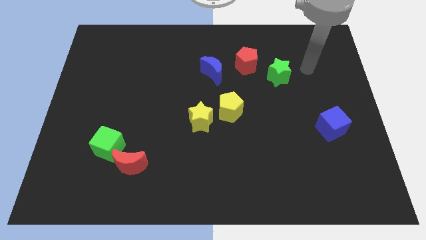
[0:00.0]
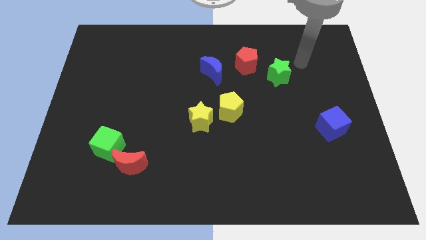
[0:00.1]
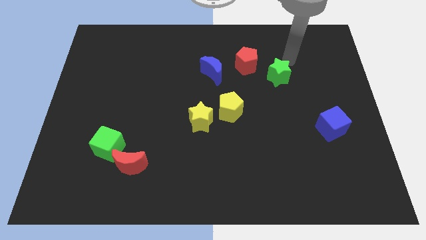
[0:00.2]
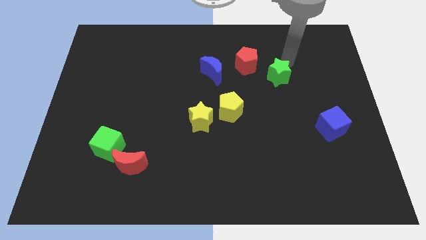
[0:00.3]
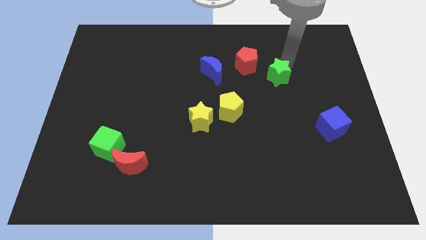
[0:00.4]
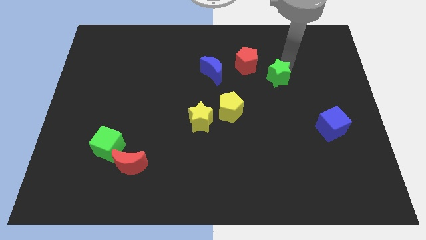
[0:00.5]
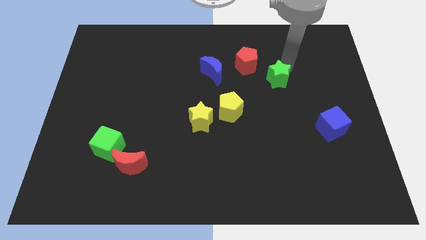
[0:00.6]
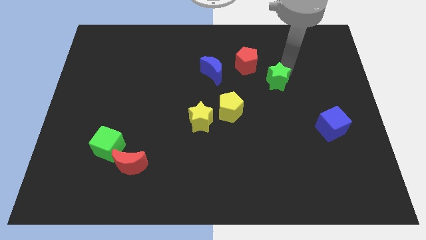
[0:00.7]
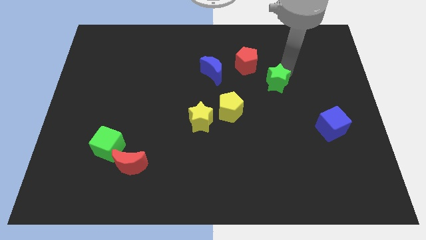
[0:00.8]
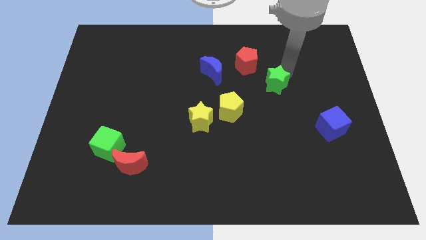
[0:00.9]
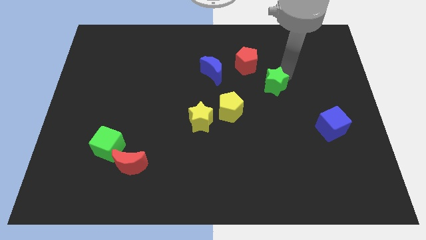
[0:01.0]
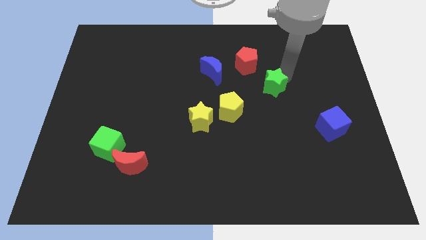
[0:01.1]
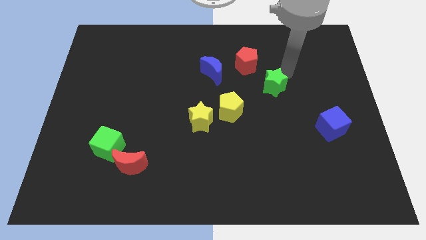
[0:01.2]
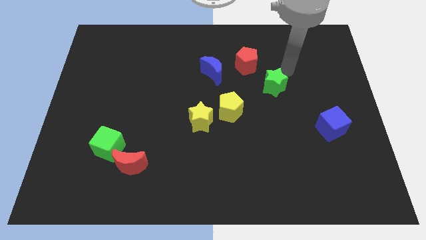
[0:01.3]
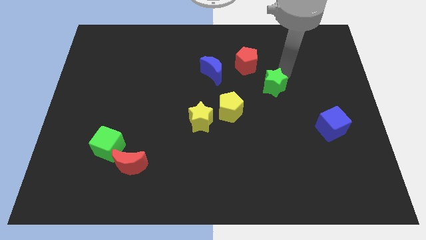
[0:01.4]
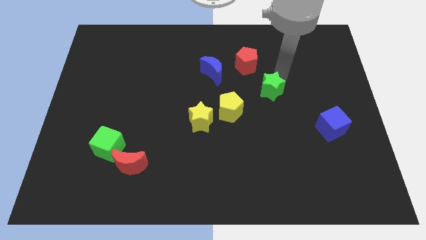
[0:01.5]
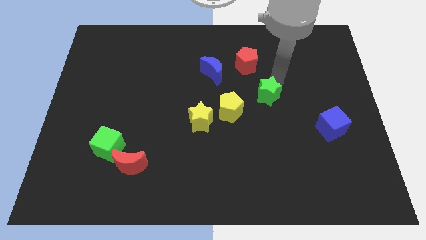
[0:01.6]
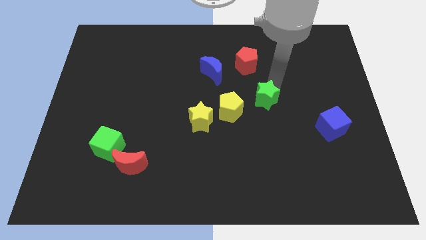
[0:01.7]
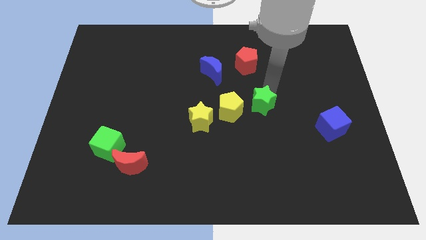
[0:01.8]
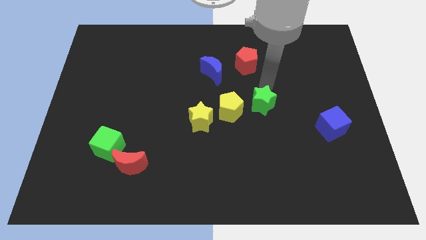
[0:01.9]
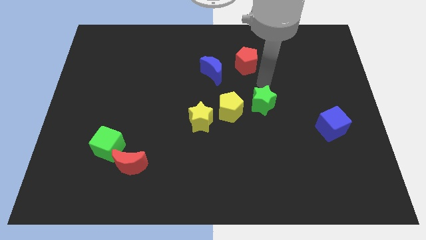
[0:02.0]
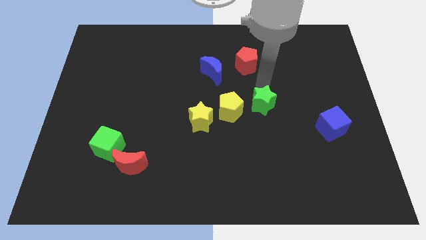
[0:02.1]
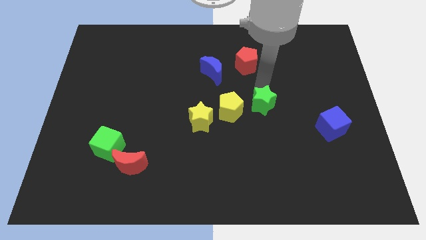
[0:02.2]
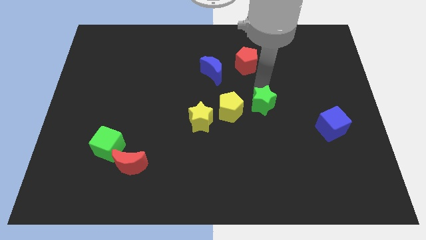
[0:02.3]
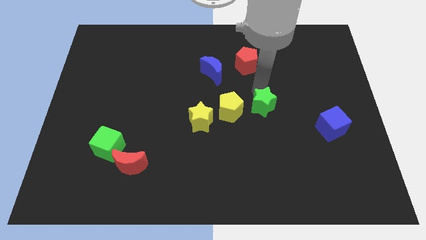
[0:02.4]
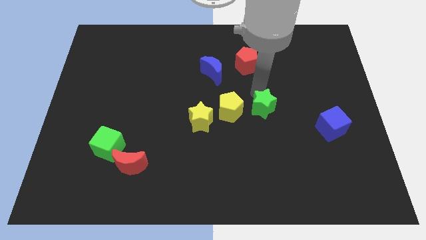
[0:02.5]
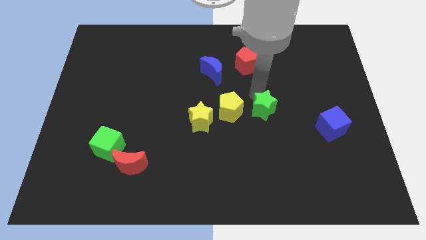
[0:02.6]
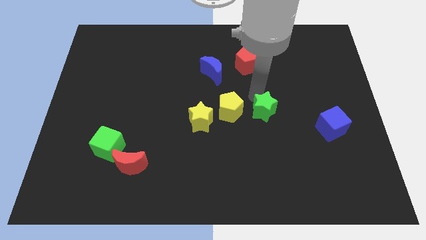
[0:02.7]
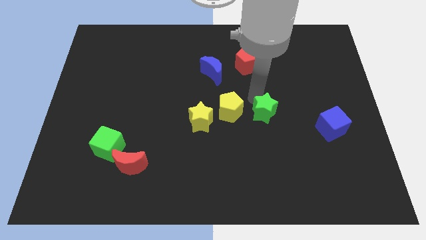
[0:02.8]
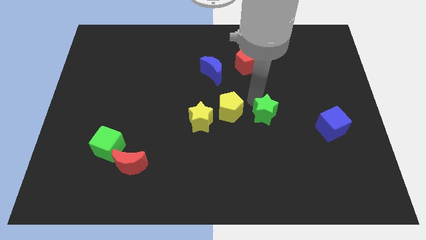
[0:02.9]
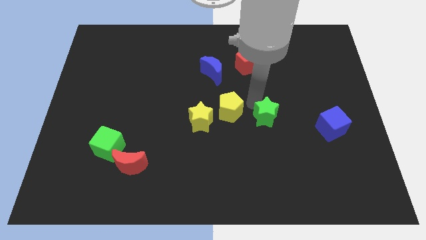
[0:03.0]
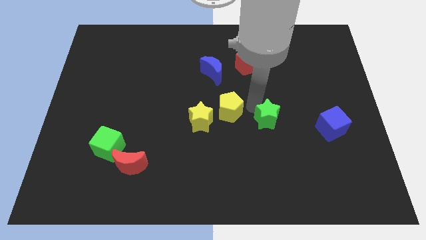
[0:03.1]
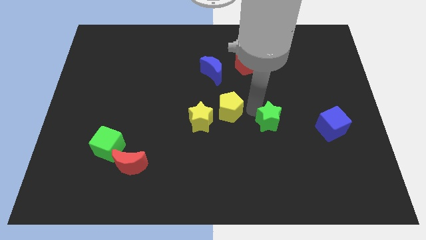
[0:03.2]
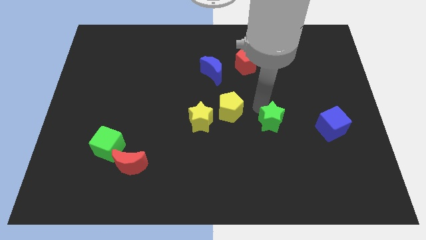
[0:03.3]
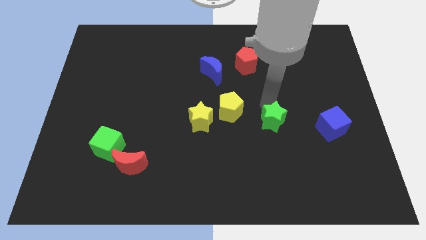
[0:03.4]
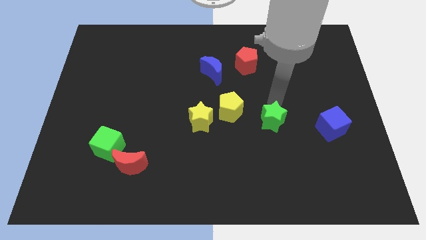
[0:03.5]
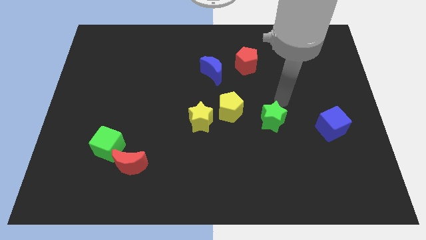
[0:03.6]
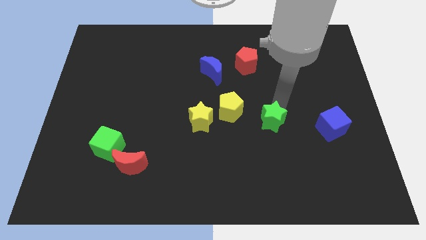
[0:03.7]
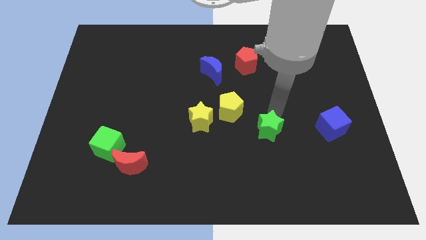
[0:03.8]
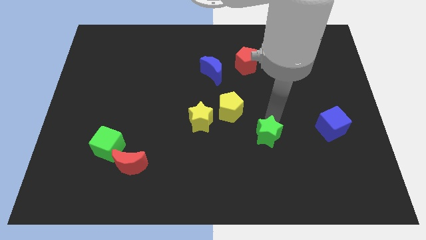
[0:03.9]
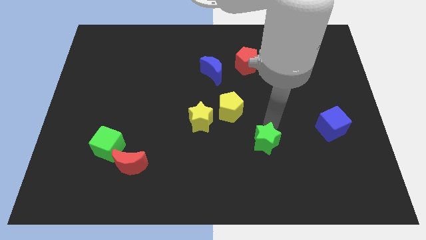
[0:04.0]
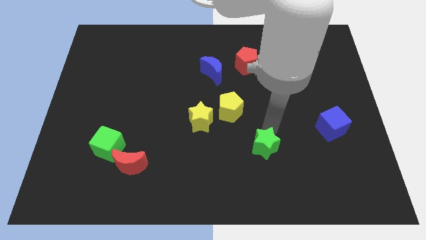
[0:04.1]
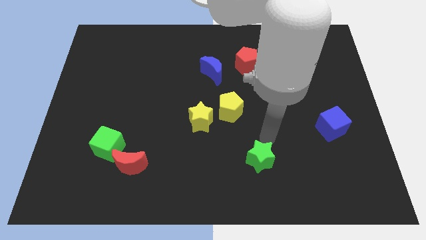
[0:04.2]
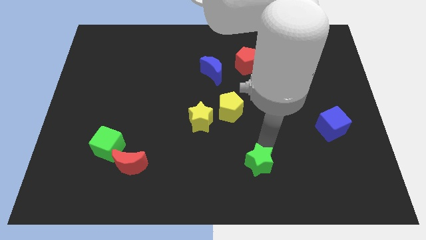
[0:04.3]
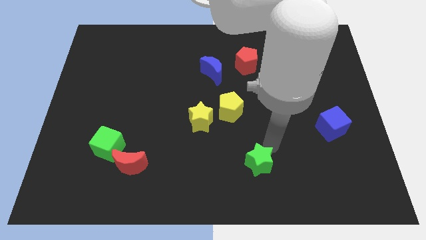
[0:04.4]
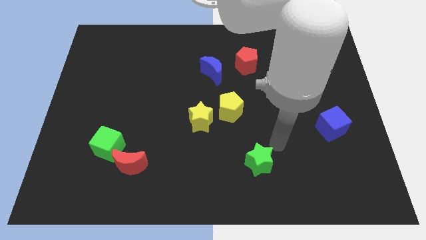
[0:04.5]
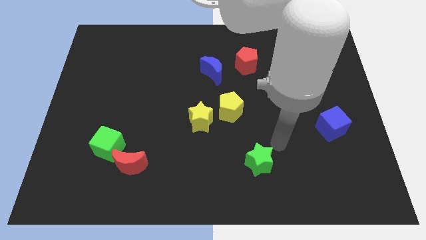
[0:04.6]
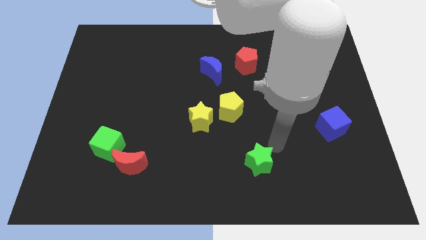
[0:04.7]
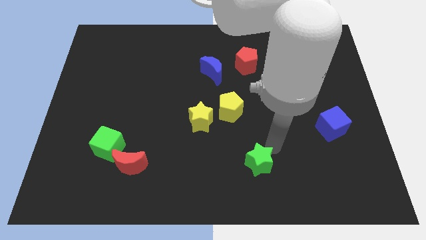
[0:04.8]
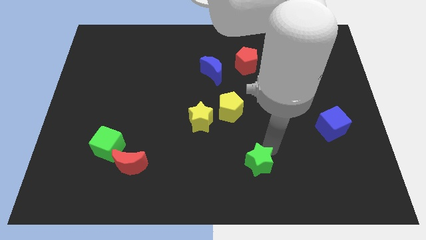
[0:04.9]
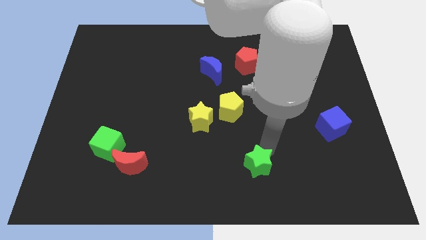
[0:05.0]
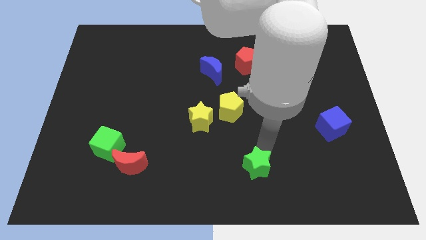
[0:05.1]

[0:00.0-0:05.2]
put the green star to the bottom side

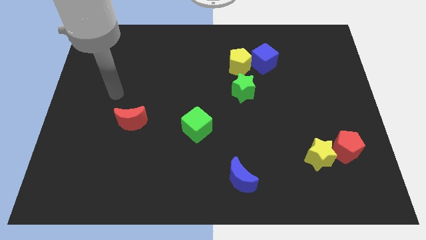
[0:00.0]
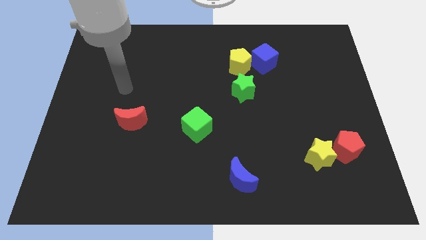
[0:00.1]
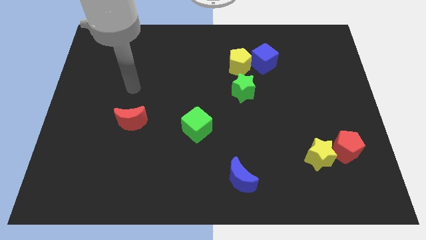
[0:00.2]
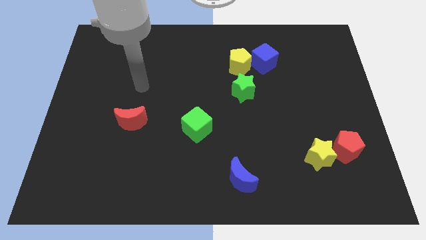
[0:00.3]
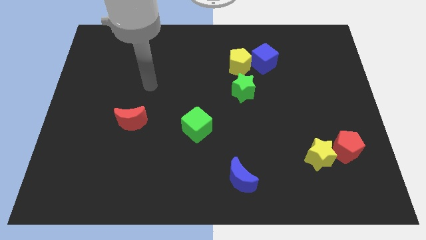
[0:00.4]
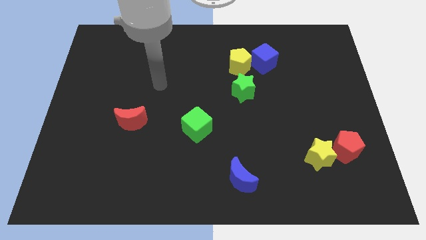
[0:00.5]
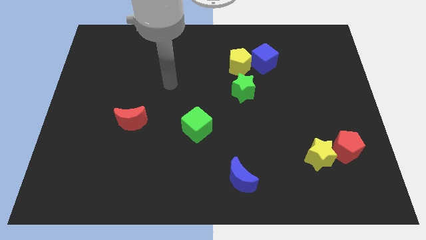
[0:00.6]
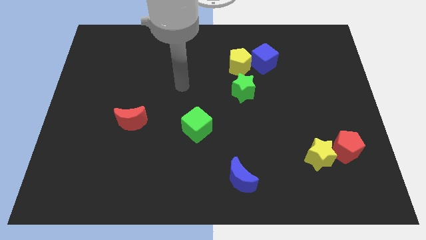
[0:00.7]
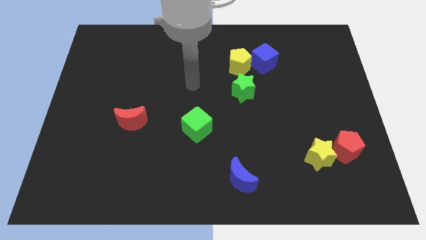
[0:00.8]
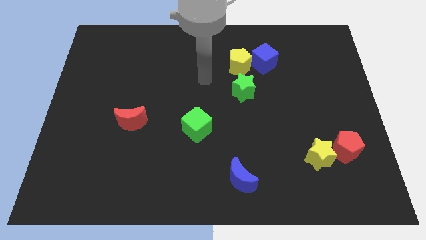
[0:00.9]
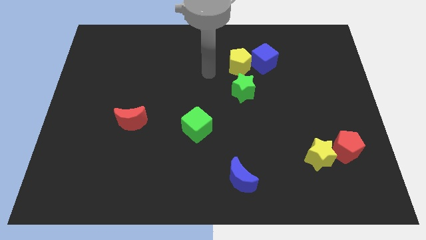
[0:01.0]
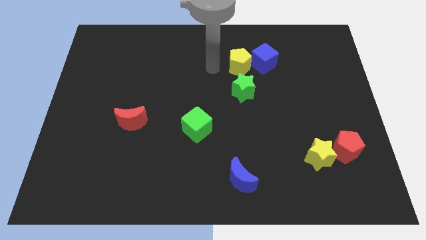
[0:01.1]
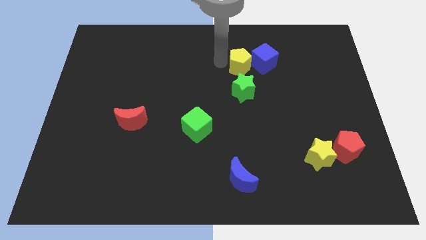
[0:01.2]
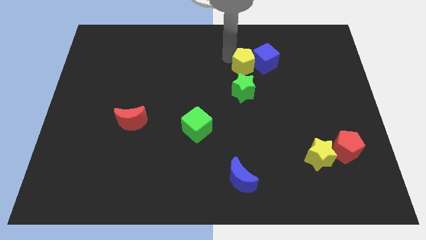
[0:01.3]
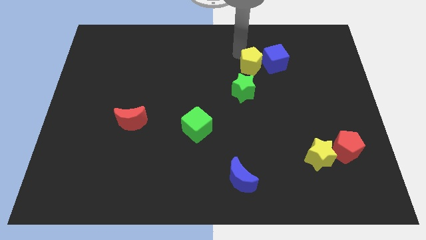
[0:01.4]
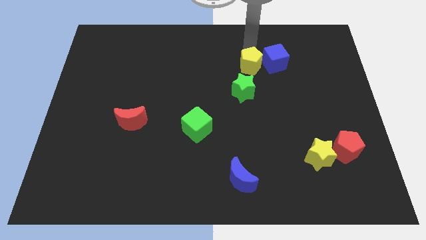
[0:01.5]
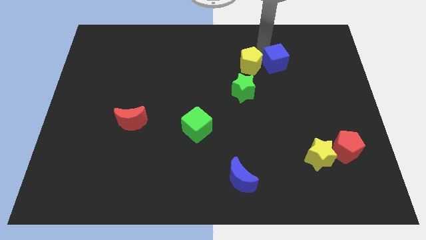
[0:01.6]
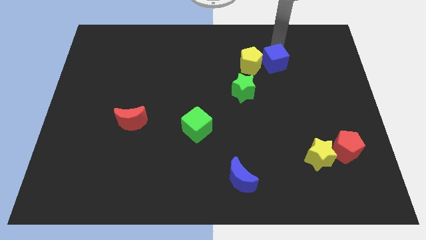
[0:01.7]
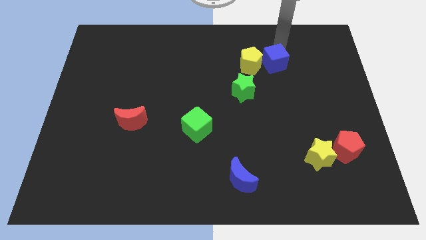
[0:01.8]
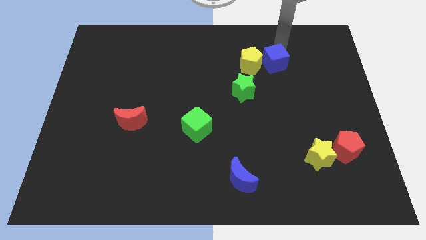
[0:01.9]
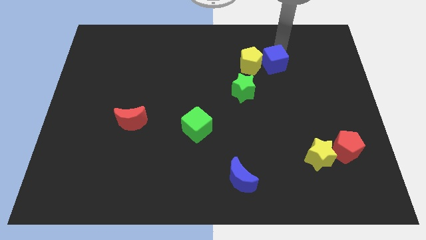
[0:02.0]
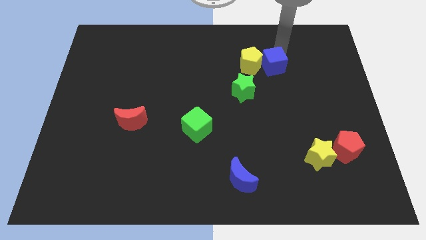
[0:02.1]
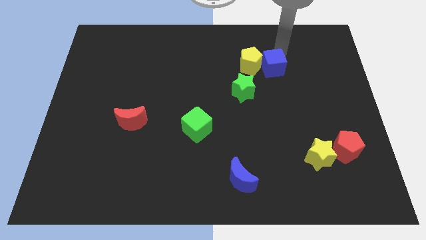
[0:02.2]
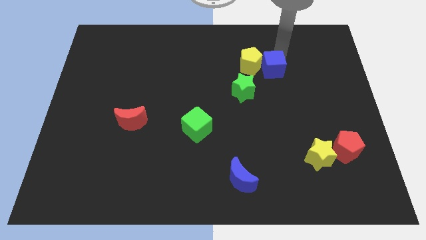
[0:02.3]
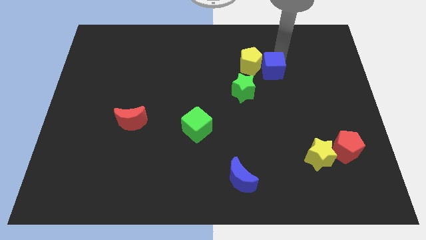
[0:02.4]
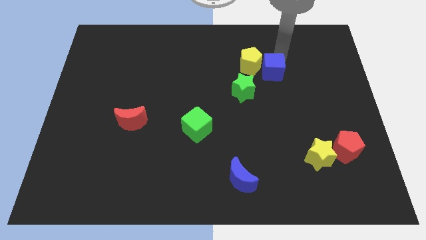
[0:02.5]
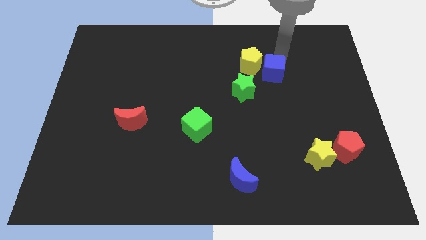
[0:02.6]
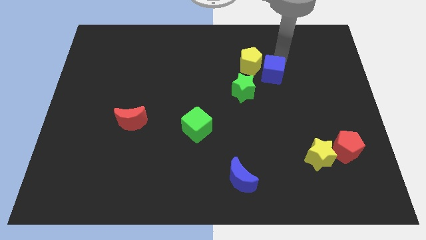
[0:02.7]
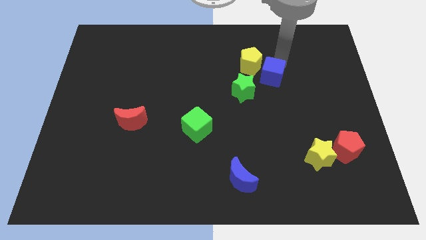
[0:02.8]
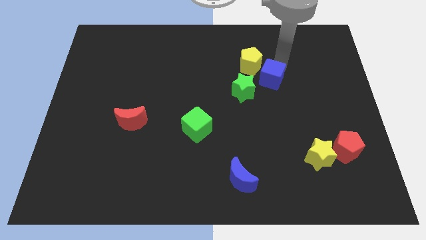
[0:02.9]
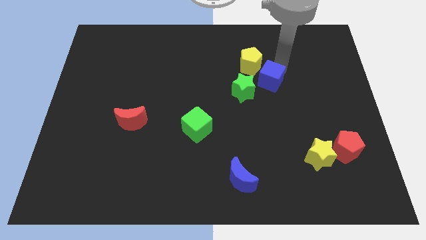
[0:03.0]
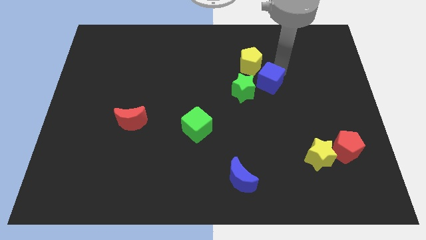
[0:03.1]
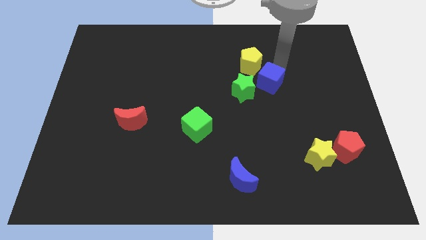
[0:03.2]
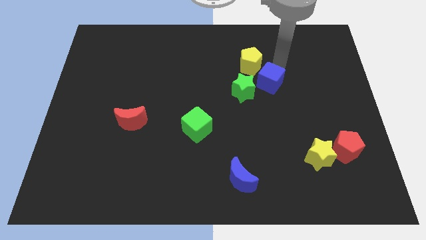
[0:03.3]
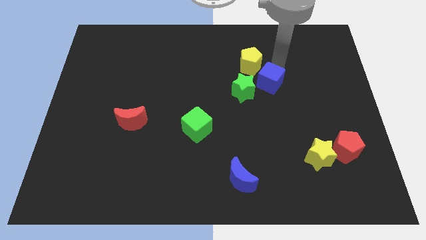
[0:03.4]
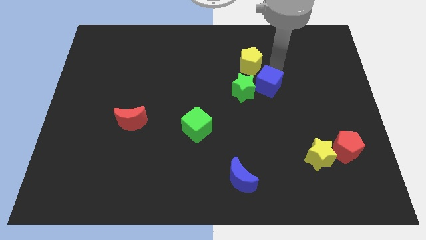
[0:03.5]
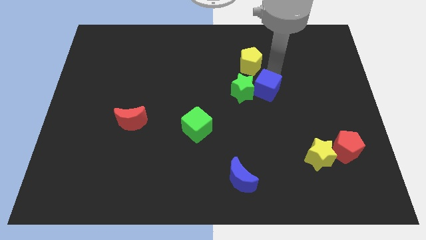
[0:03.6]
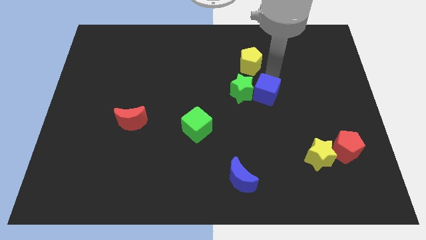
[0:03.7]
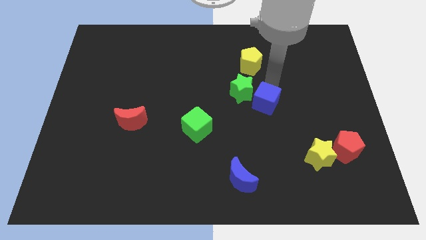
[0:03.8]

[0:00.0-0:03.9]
move the blue cube to the center of the board
